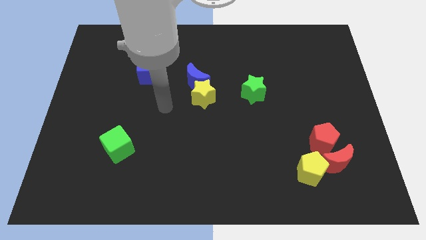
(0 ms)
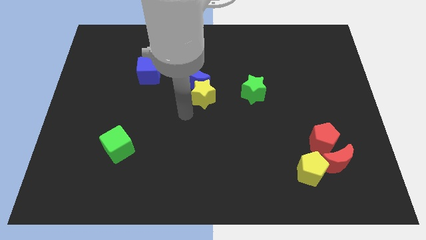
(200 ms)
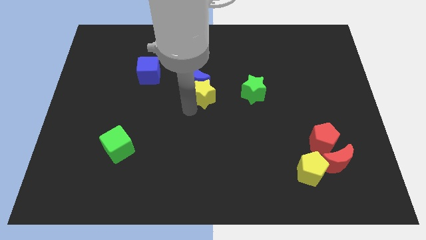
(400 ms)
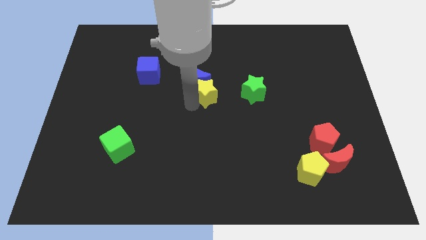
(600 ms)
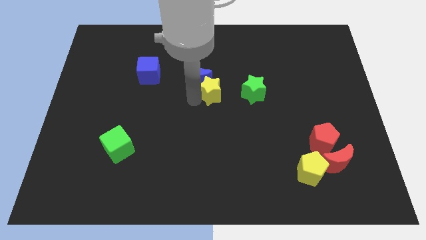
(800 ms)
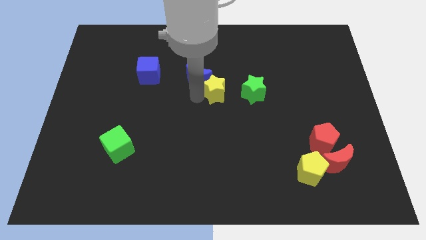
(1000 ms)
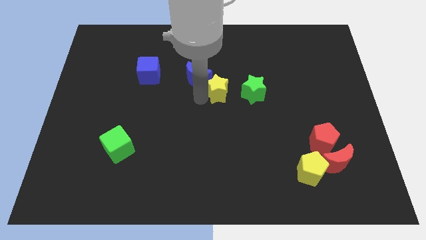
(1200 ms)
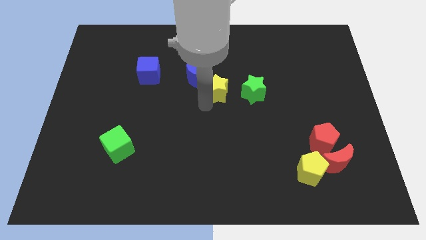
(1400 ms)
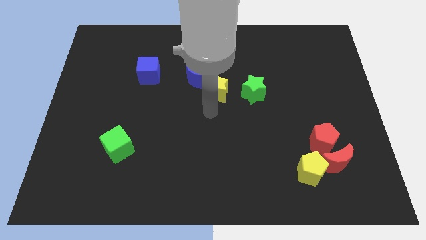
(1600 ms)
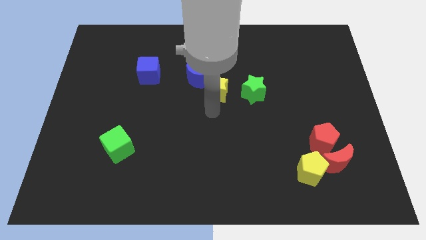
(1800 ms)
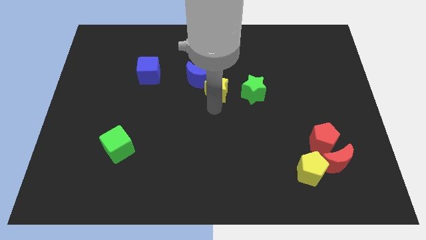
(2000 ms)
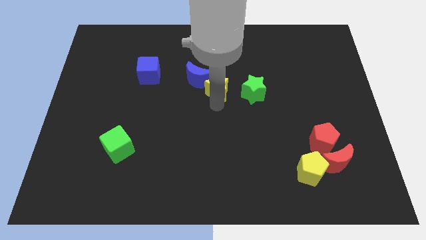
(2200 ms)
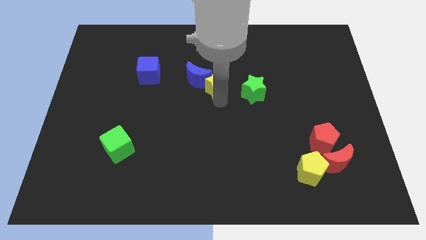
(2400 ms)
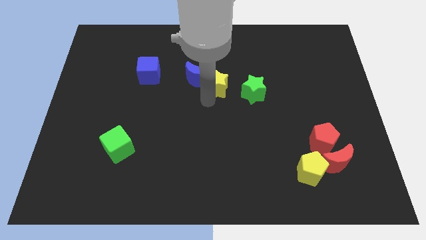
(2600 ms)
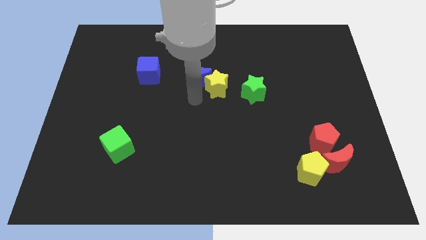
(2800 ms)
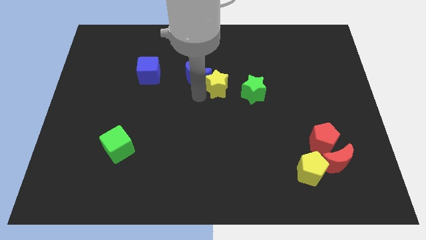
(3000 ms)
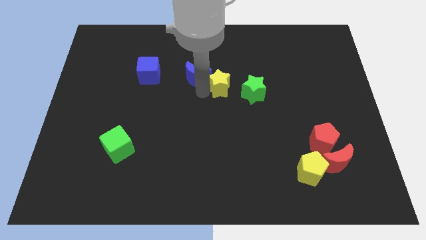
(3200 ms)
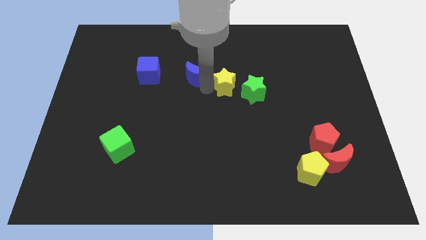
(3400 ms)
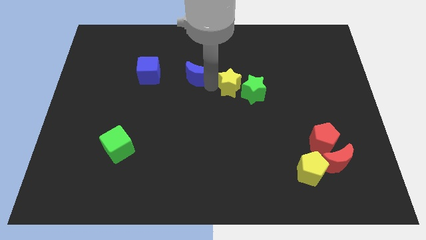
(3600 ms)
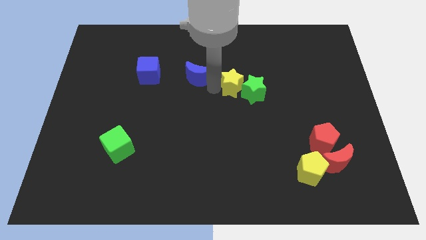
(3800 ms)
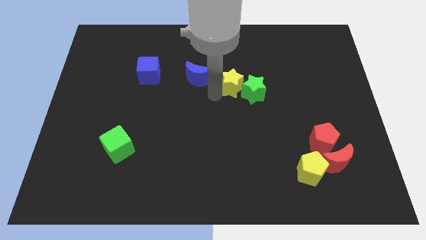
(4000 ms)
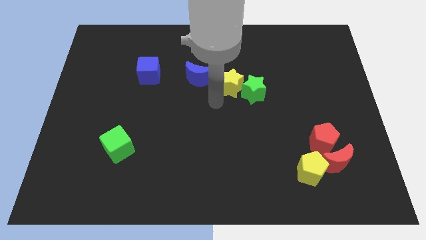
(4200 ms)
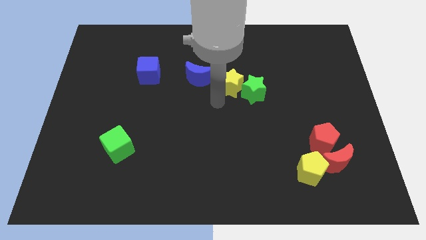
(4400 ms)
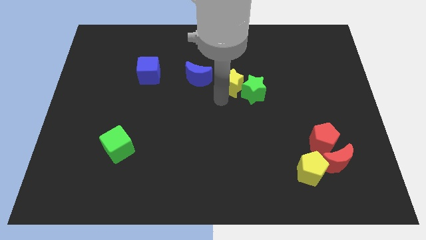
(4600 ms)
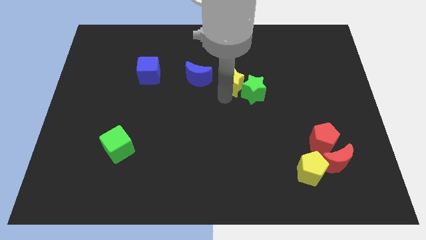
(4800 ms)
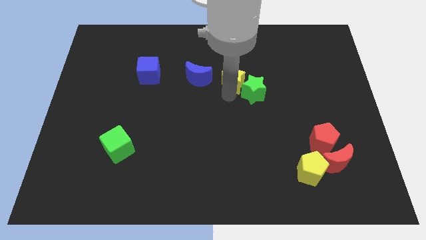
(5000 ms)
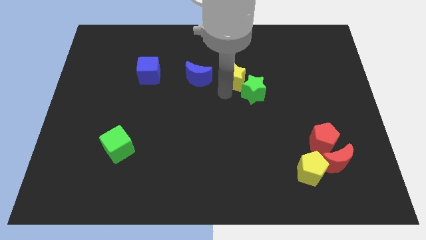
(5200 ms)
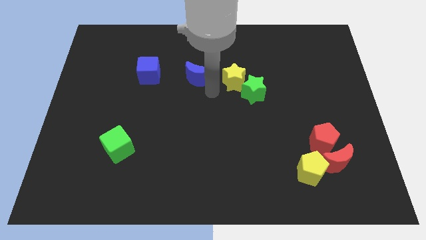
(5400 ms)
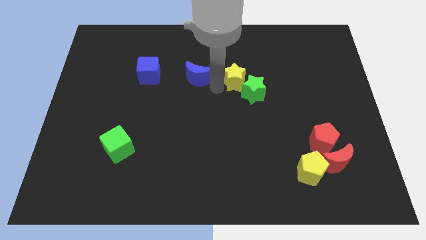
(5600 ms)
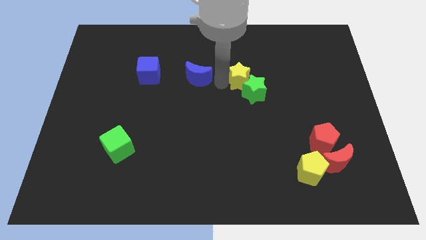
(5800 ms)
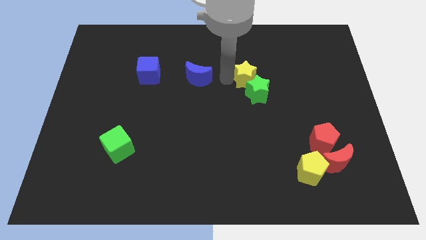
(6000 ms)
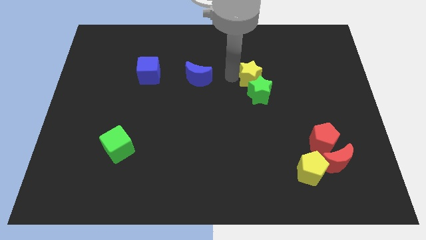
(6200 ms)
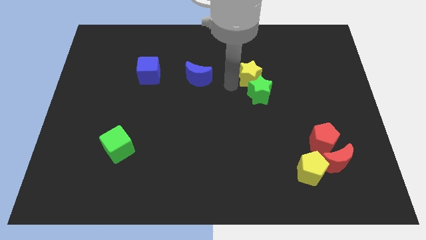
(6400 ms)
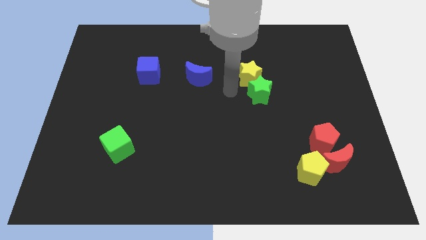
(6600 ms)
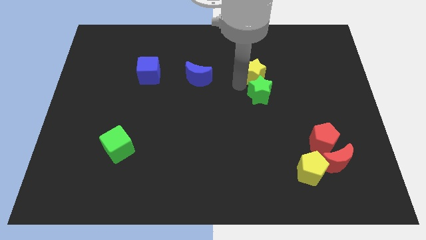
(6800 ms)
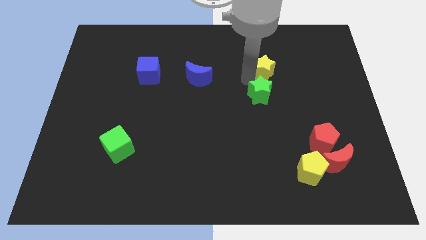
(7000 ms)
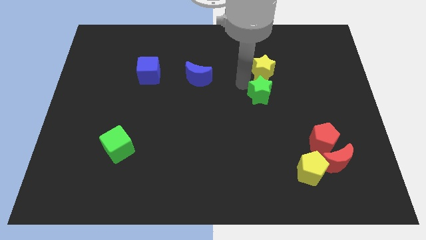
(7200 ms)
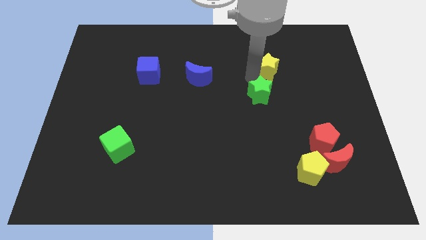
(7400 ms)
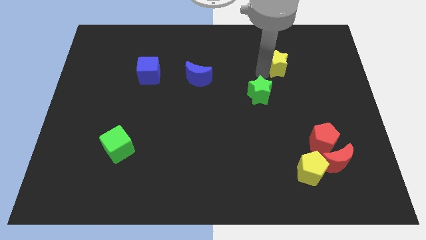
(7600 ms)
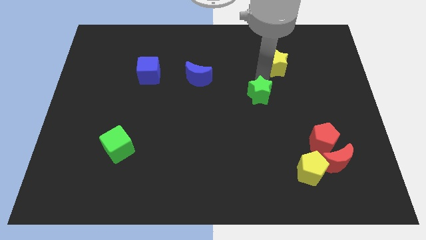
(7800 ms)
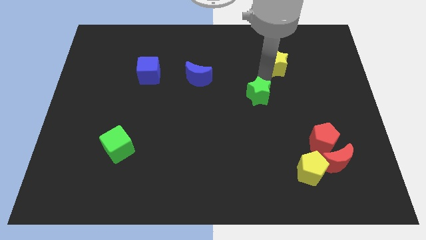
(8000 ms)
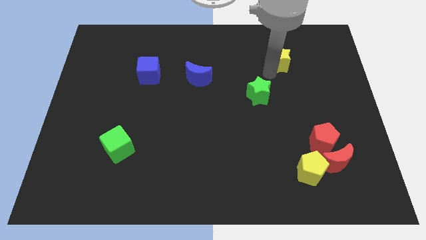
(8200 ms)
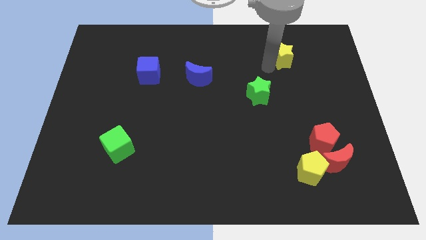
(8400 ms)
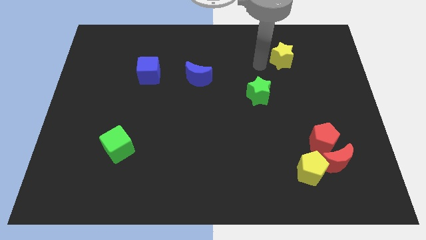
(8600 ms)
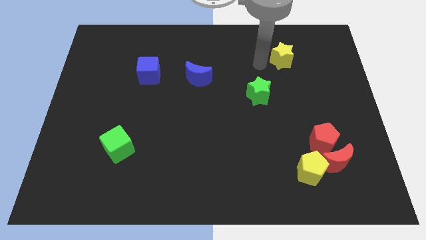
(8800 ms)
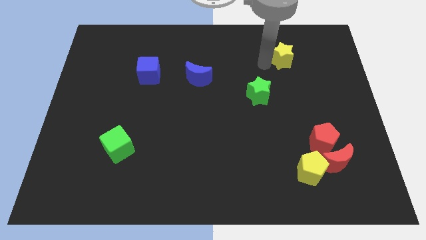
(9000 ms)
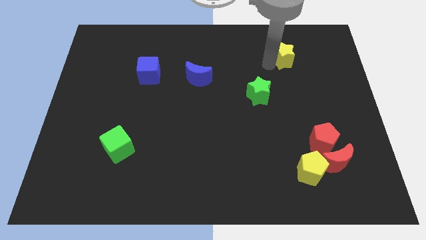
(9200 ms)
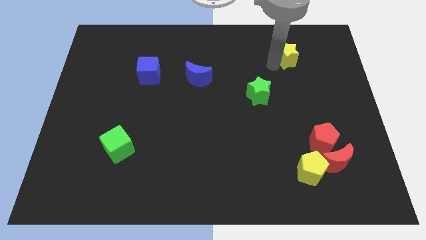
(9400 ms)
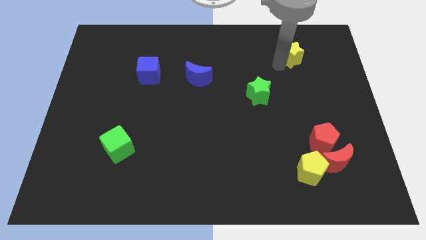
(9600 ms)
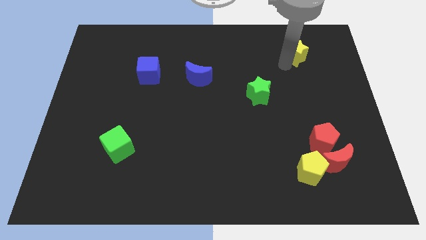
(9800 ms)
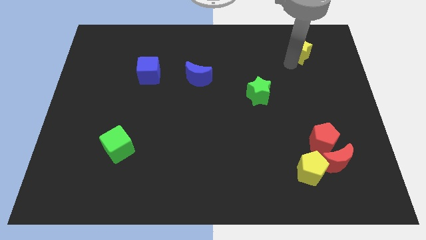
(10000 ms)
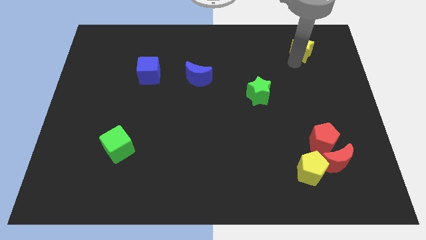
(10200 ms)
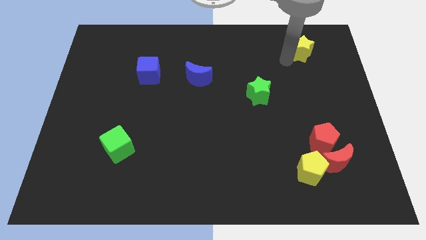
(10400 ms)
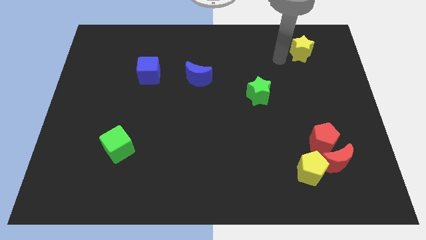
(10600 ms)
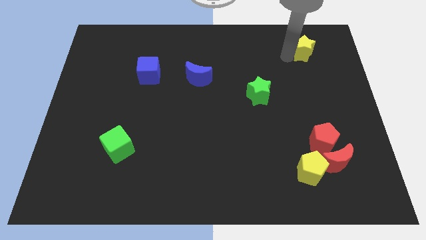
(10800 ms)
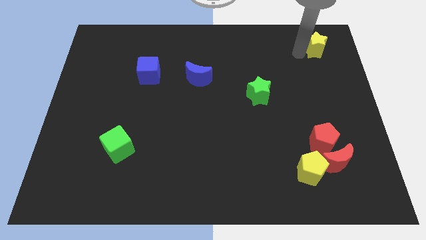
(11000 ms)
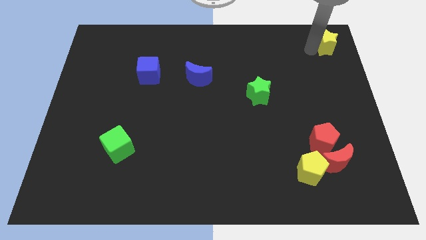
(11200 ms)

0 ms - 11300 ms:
move the yellow star to the top right corner
